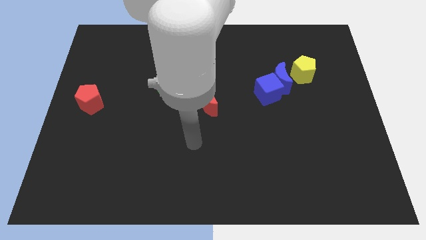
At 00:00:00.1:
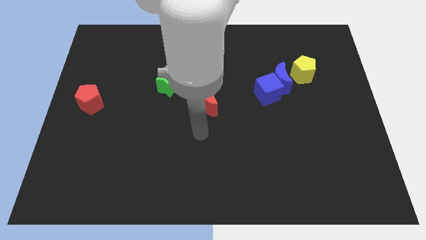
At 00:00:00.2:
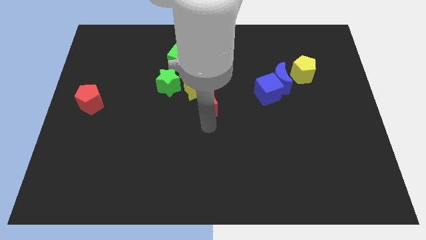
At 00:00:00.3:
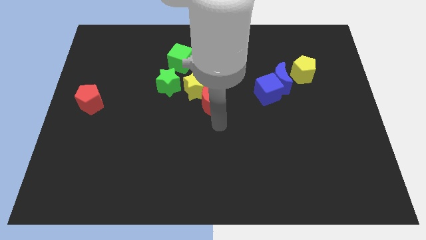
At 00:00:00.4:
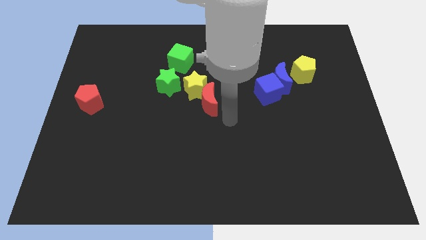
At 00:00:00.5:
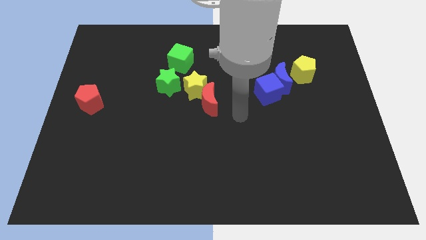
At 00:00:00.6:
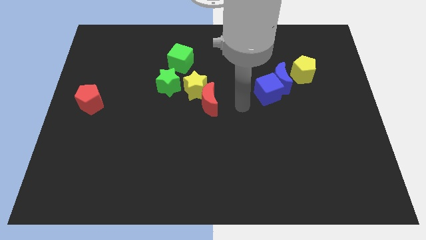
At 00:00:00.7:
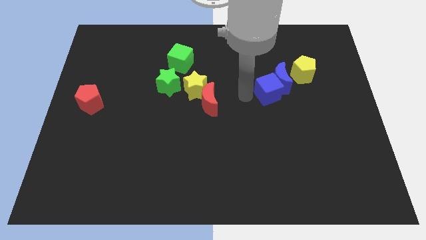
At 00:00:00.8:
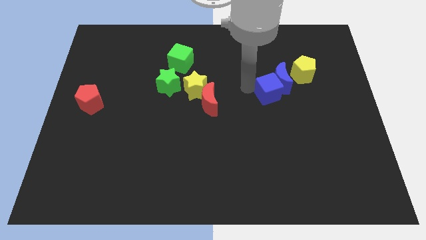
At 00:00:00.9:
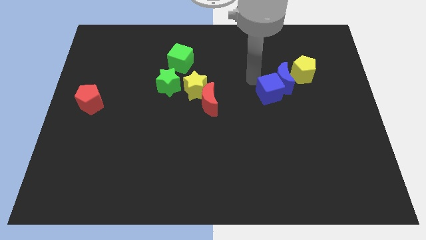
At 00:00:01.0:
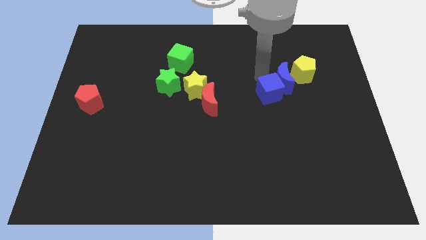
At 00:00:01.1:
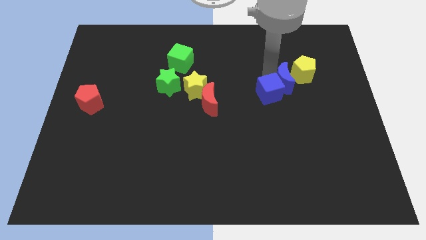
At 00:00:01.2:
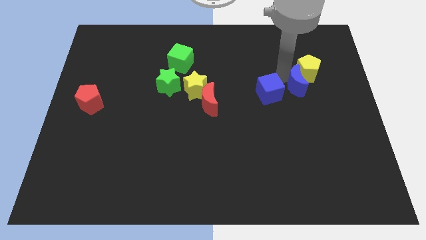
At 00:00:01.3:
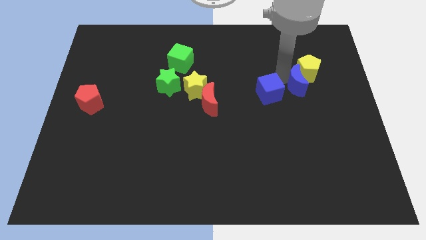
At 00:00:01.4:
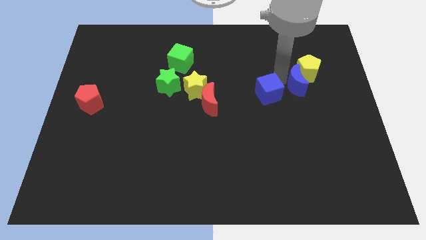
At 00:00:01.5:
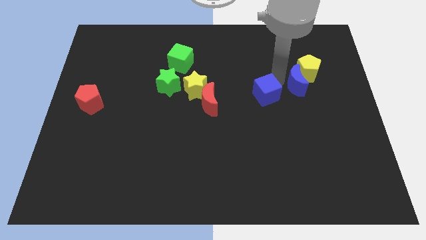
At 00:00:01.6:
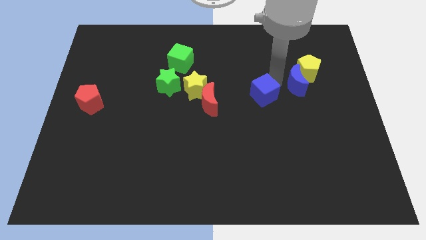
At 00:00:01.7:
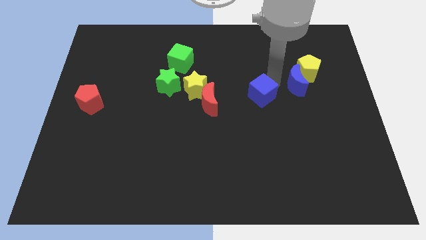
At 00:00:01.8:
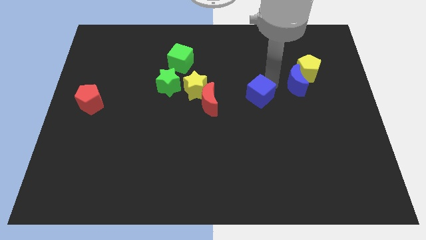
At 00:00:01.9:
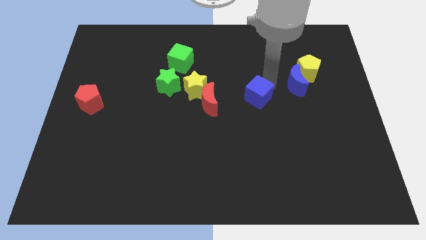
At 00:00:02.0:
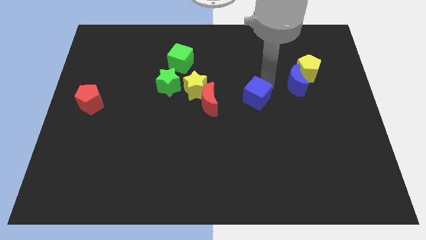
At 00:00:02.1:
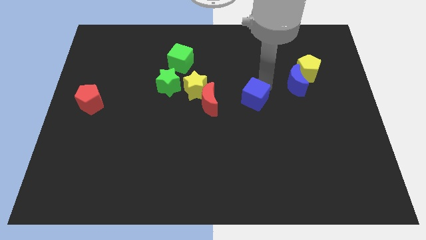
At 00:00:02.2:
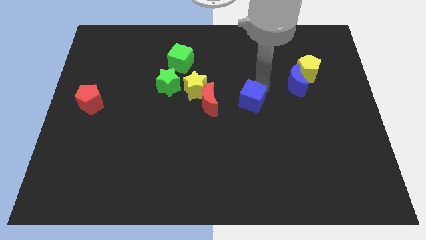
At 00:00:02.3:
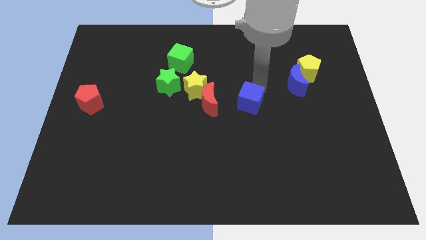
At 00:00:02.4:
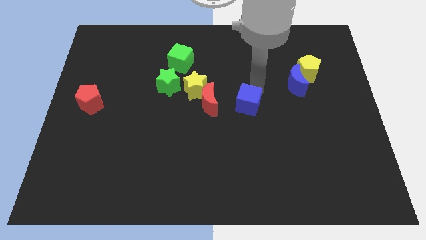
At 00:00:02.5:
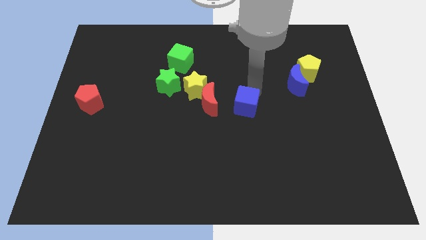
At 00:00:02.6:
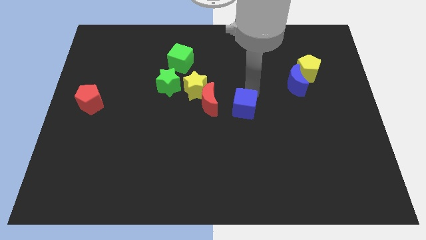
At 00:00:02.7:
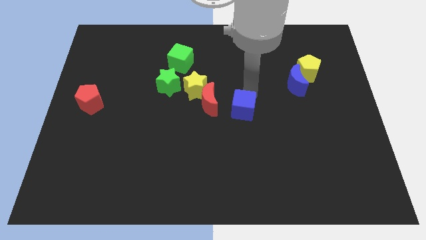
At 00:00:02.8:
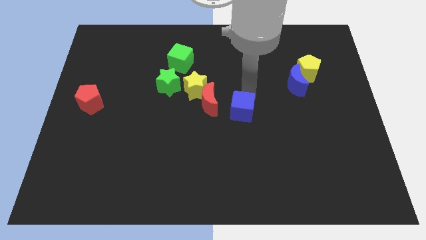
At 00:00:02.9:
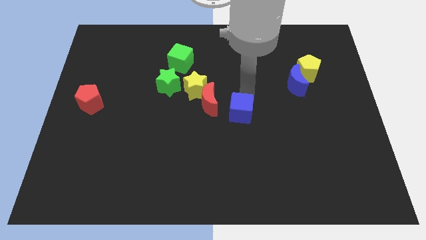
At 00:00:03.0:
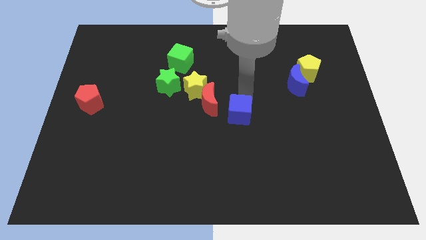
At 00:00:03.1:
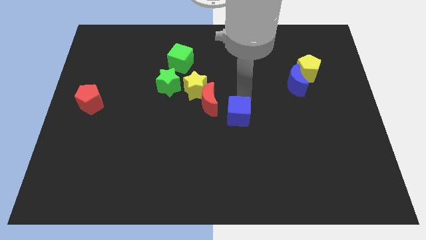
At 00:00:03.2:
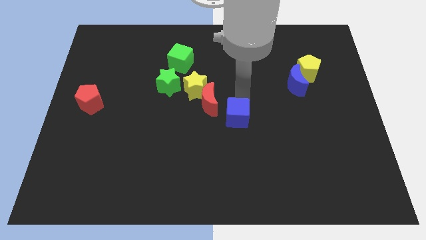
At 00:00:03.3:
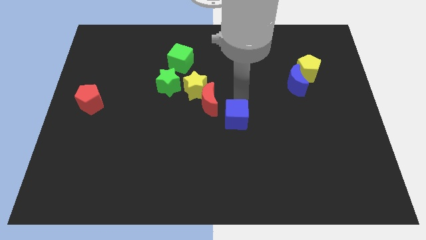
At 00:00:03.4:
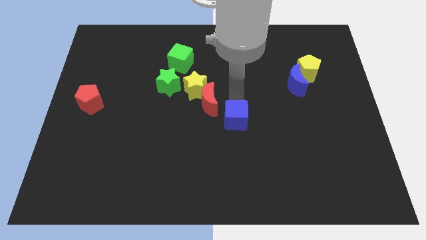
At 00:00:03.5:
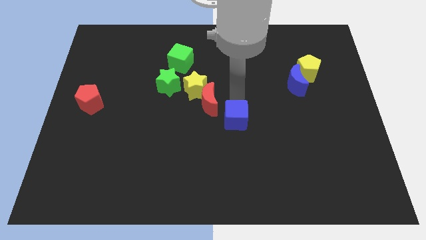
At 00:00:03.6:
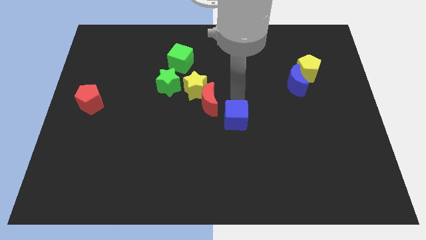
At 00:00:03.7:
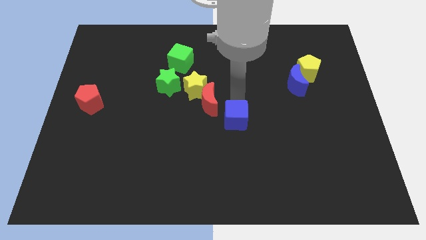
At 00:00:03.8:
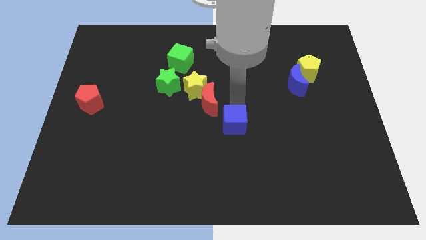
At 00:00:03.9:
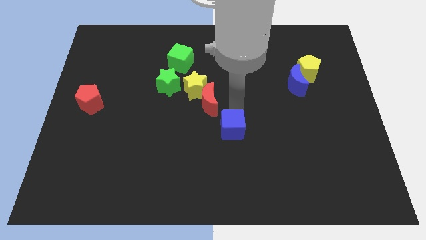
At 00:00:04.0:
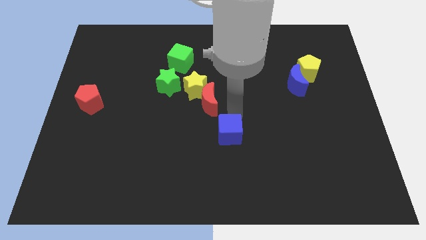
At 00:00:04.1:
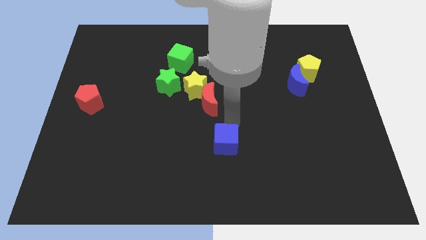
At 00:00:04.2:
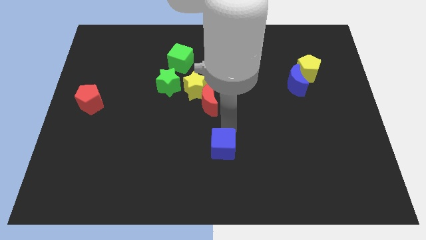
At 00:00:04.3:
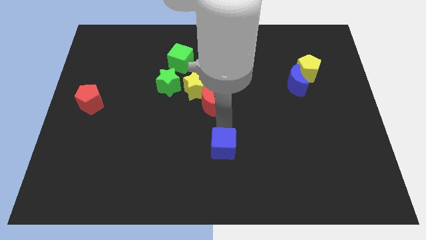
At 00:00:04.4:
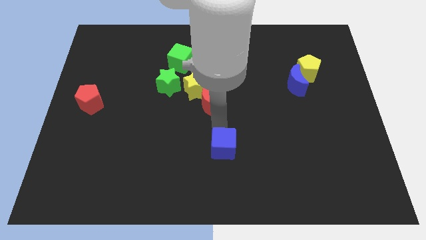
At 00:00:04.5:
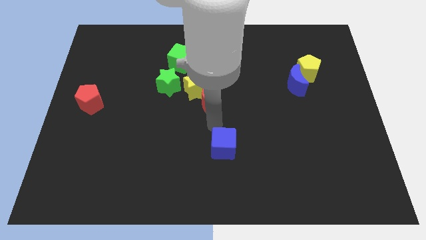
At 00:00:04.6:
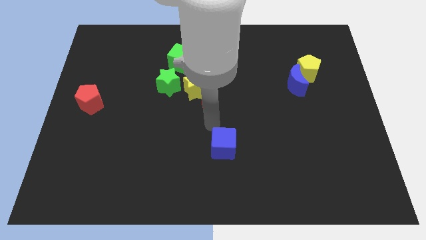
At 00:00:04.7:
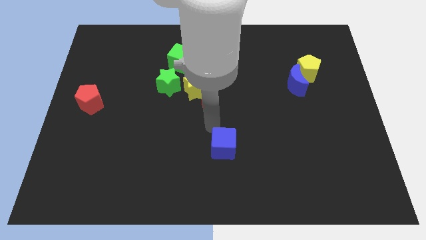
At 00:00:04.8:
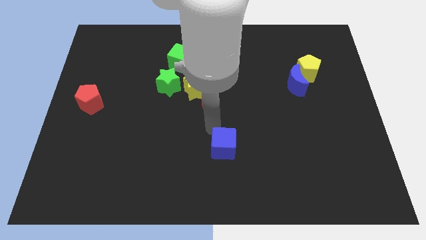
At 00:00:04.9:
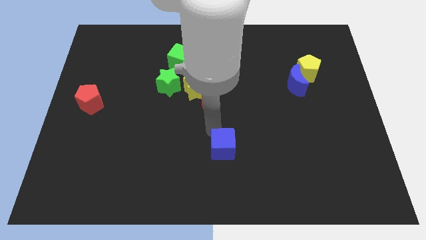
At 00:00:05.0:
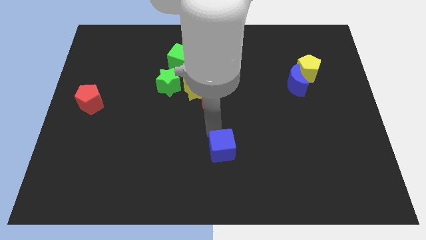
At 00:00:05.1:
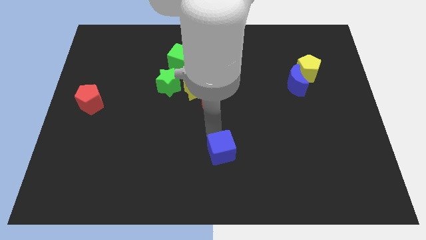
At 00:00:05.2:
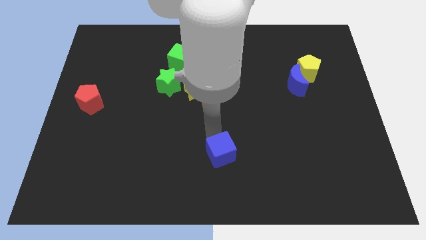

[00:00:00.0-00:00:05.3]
move the blue cube to the bottom

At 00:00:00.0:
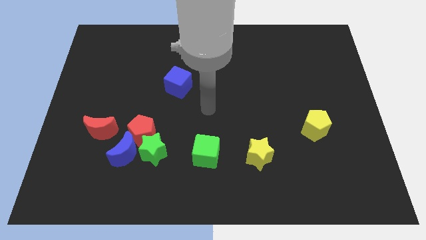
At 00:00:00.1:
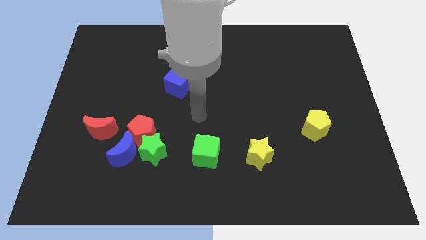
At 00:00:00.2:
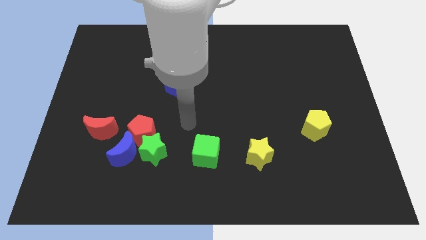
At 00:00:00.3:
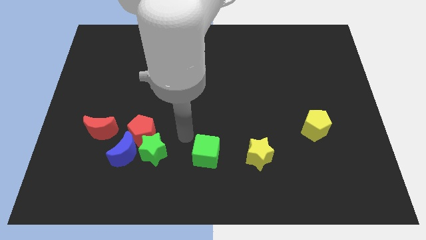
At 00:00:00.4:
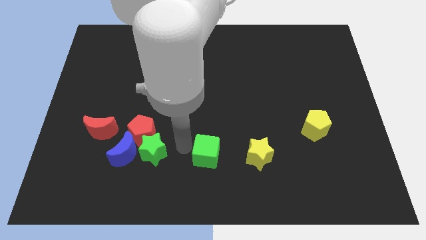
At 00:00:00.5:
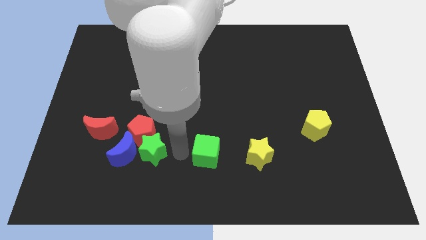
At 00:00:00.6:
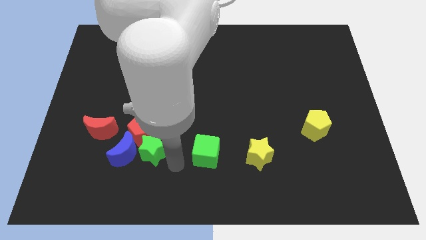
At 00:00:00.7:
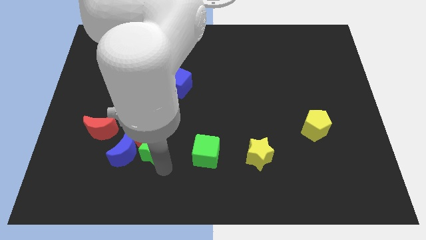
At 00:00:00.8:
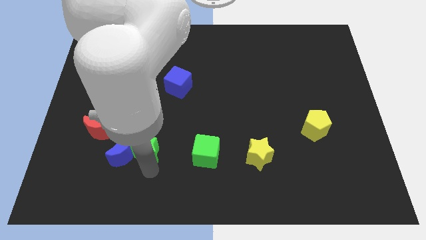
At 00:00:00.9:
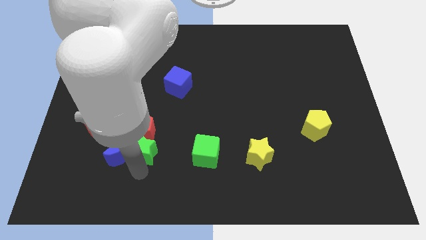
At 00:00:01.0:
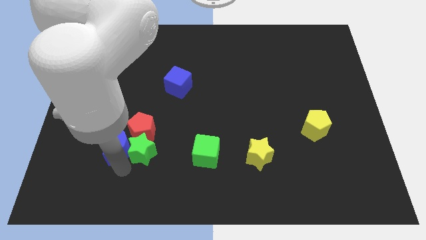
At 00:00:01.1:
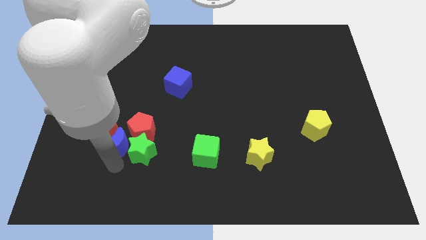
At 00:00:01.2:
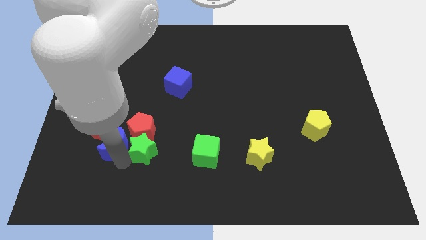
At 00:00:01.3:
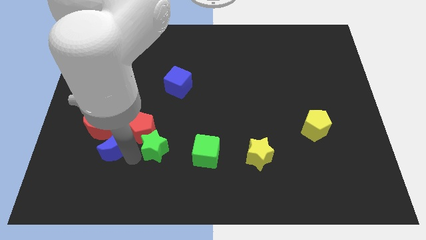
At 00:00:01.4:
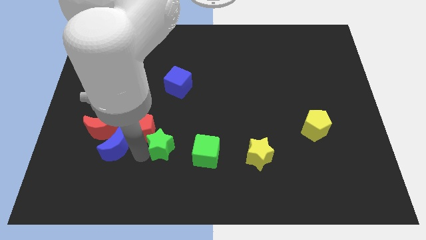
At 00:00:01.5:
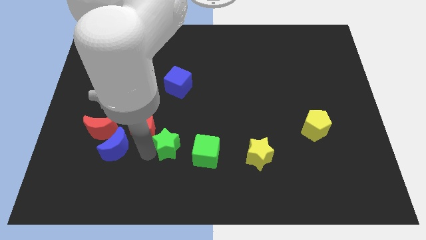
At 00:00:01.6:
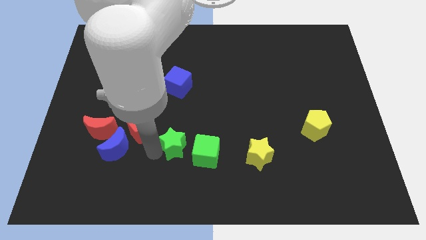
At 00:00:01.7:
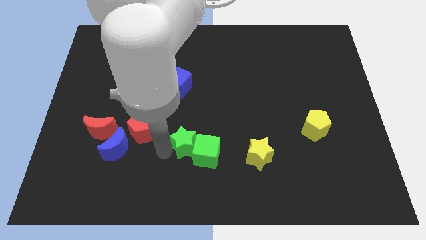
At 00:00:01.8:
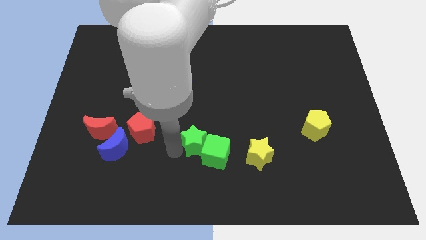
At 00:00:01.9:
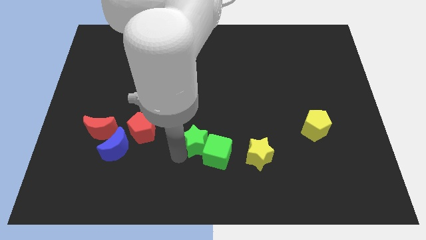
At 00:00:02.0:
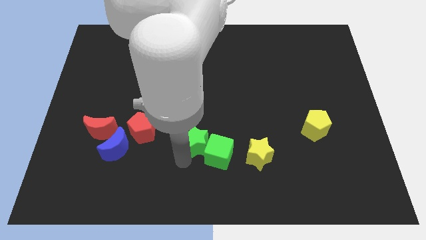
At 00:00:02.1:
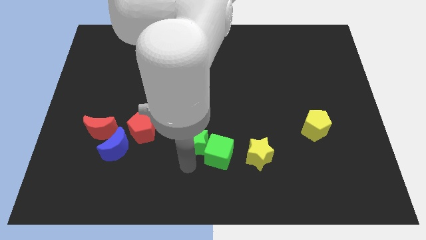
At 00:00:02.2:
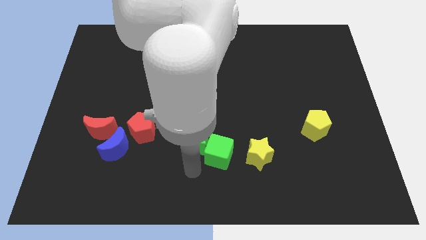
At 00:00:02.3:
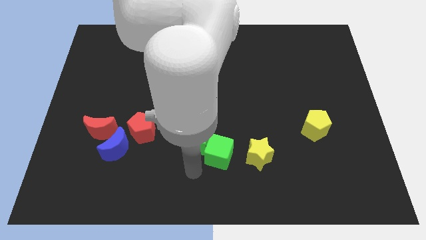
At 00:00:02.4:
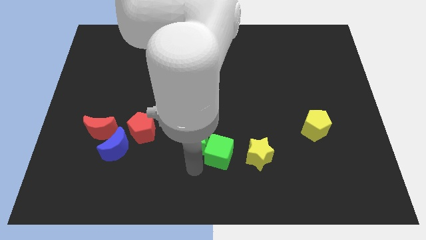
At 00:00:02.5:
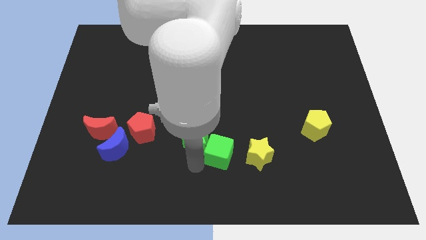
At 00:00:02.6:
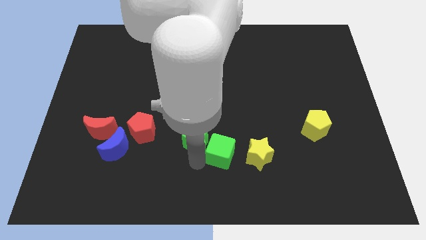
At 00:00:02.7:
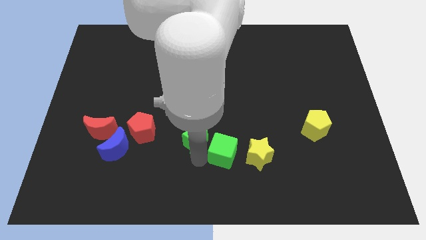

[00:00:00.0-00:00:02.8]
slide the green star to the center

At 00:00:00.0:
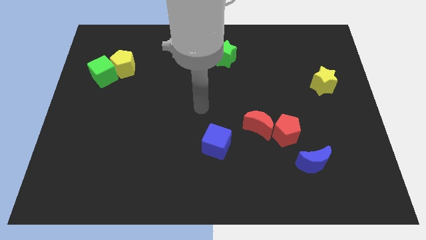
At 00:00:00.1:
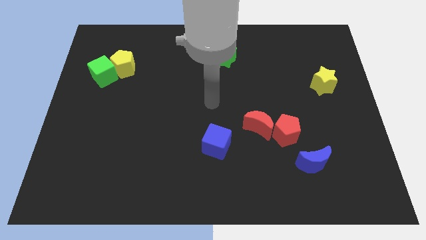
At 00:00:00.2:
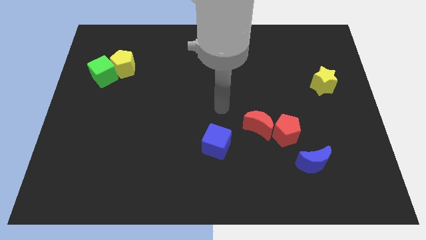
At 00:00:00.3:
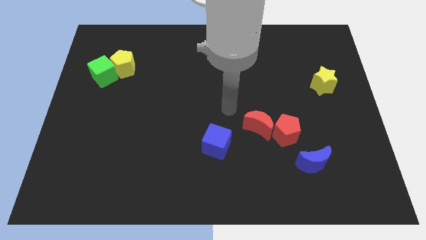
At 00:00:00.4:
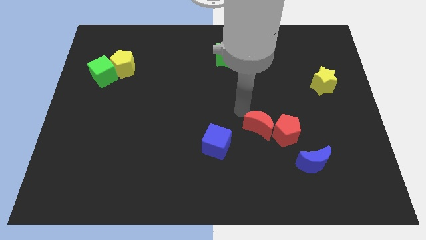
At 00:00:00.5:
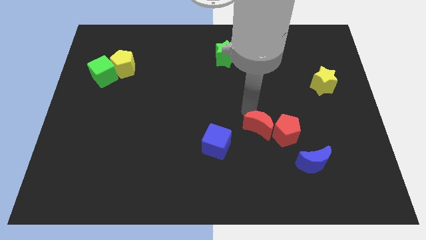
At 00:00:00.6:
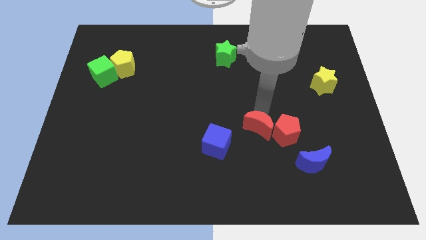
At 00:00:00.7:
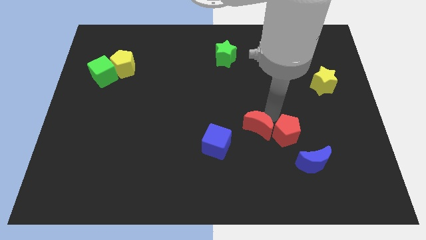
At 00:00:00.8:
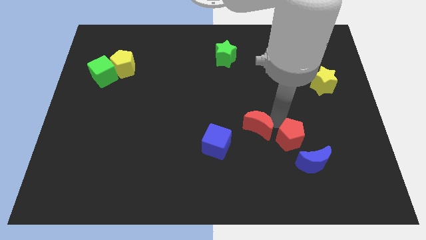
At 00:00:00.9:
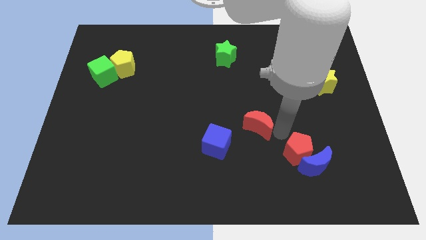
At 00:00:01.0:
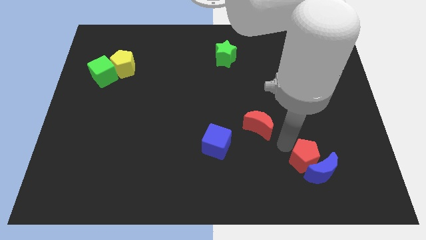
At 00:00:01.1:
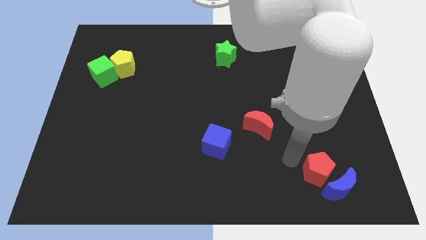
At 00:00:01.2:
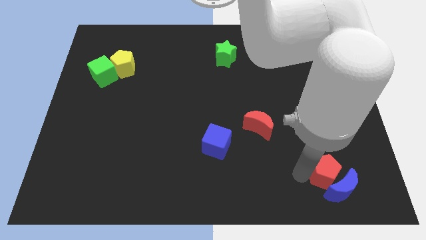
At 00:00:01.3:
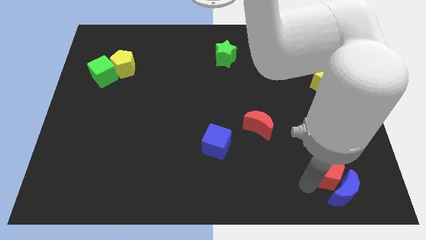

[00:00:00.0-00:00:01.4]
push the blue moon to the bottom right of the board
